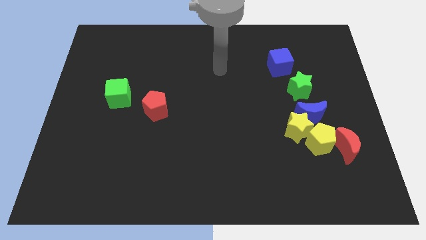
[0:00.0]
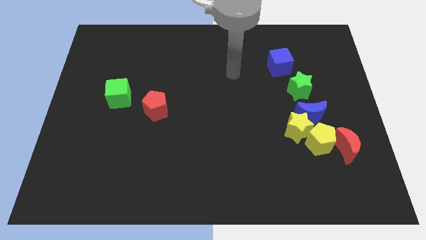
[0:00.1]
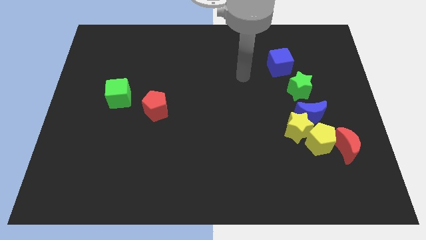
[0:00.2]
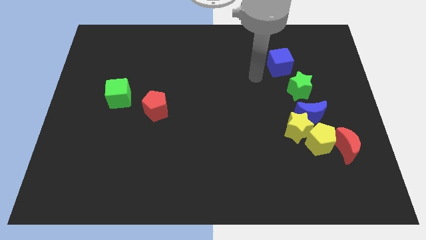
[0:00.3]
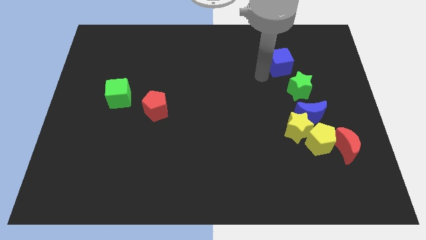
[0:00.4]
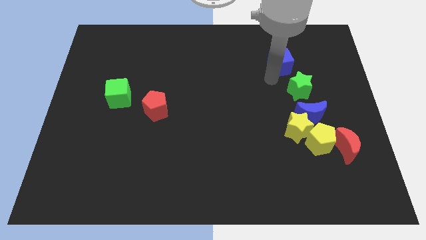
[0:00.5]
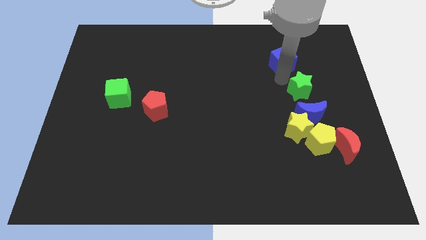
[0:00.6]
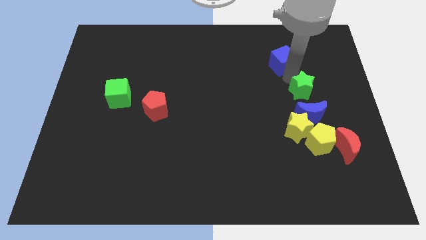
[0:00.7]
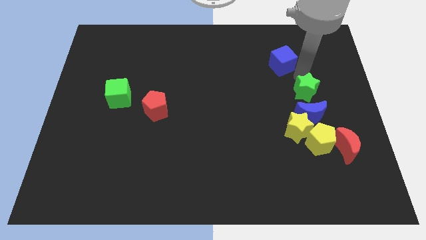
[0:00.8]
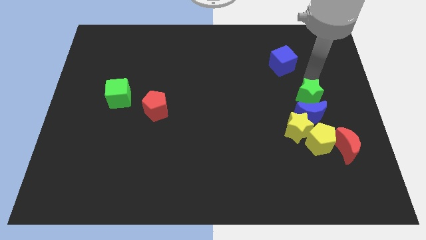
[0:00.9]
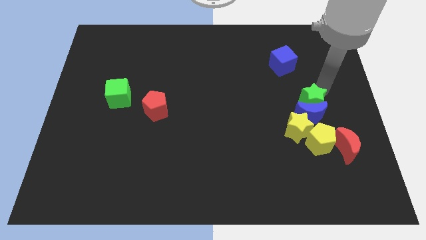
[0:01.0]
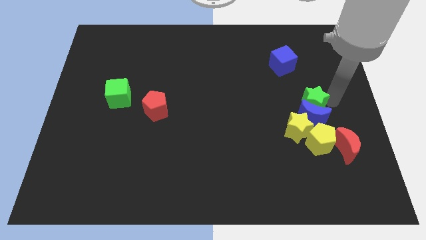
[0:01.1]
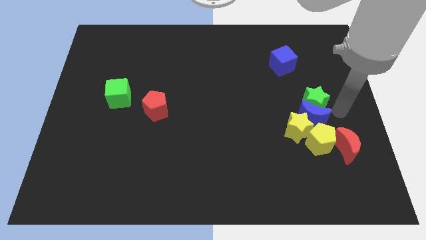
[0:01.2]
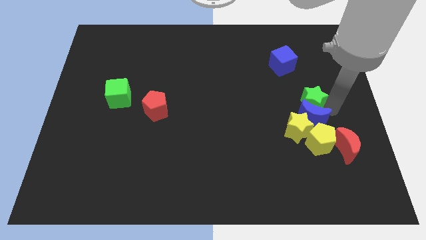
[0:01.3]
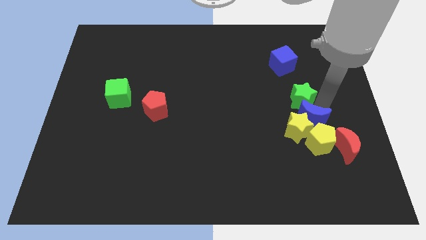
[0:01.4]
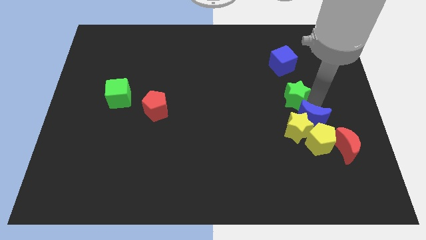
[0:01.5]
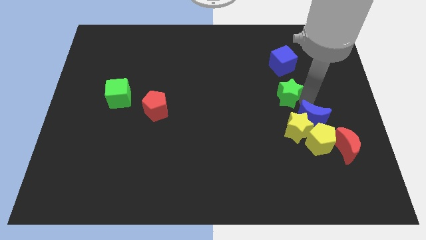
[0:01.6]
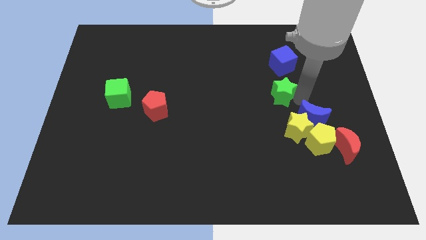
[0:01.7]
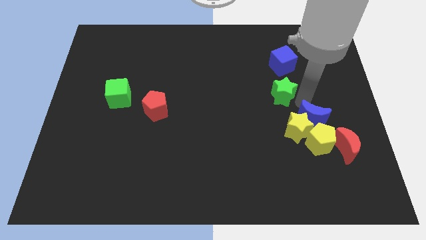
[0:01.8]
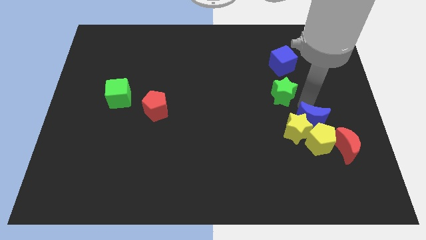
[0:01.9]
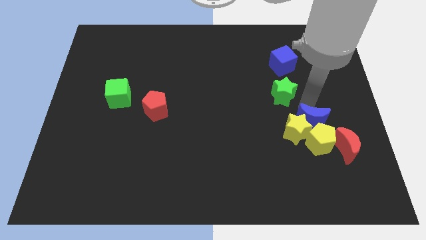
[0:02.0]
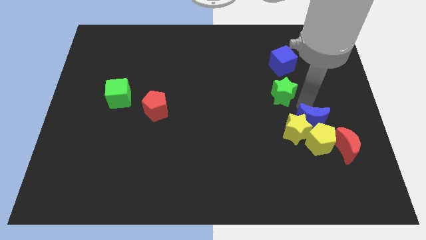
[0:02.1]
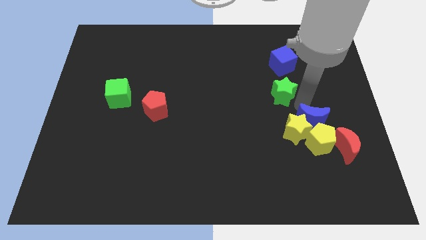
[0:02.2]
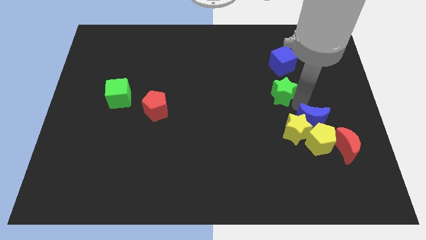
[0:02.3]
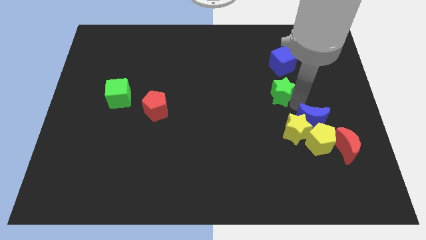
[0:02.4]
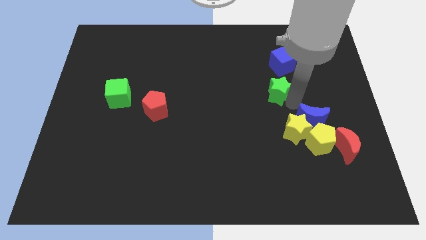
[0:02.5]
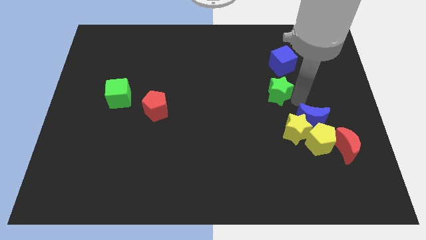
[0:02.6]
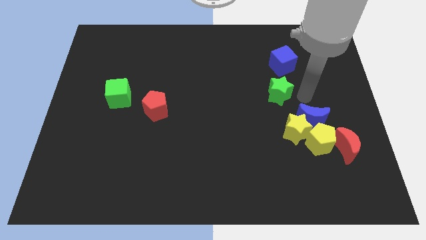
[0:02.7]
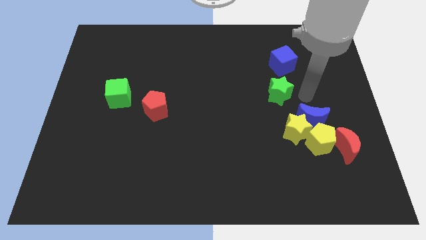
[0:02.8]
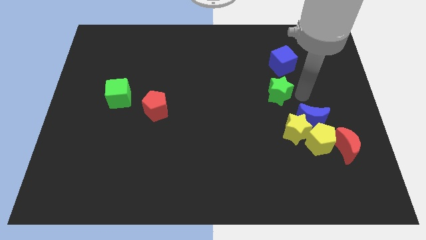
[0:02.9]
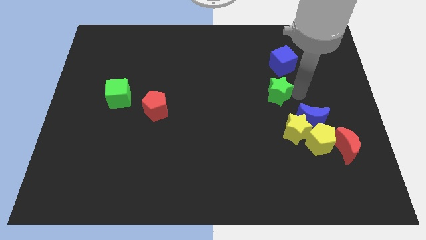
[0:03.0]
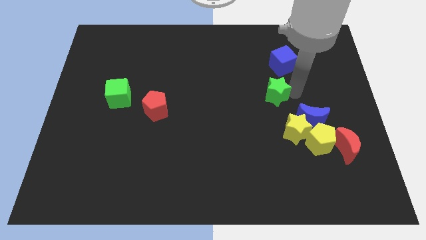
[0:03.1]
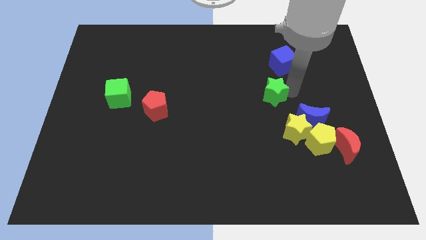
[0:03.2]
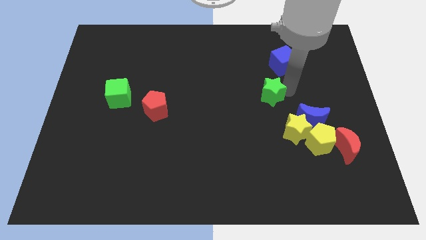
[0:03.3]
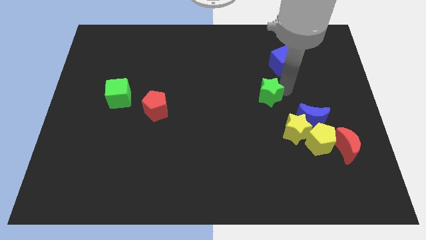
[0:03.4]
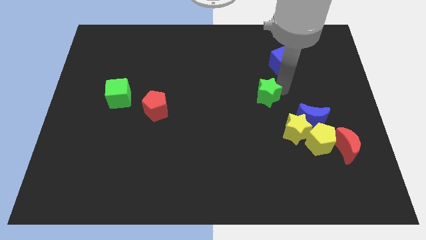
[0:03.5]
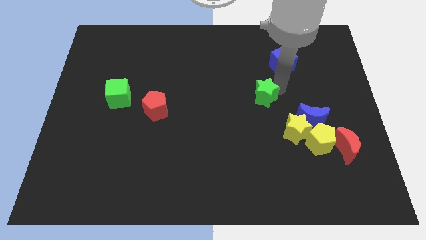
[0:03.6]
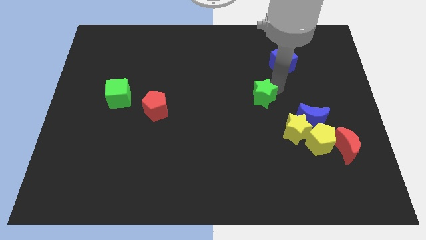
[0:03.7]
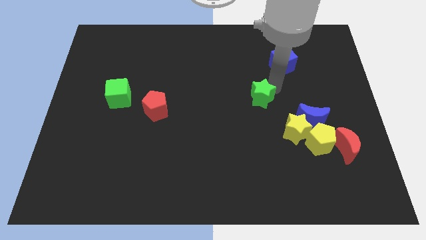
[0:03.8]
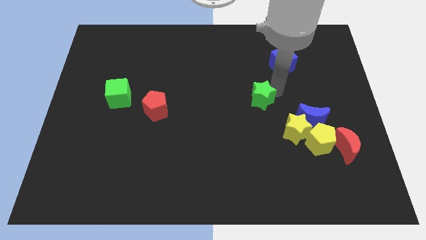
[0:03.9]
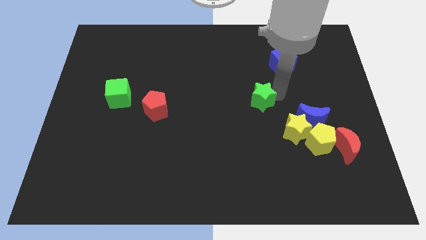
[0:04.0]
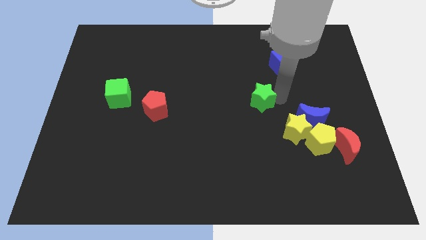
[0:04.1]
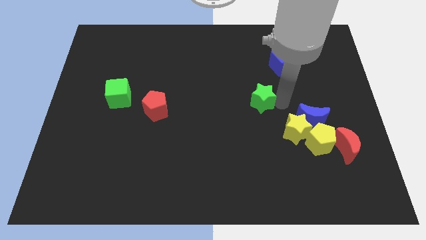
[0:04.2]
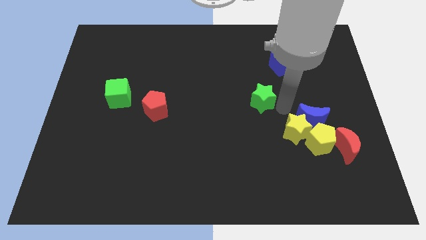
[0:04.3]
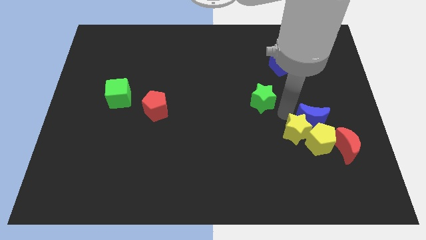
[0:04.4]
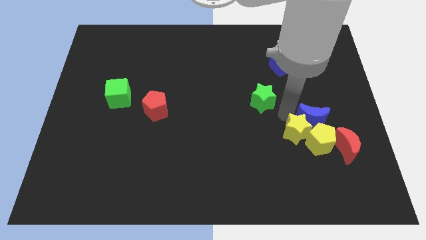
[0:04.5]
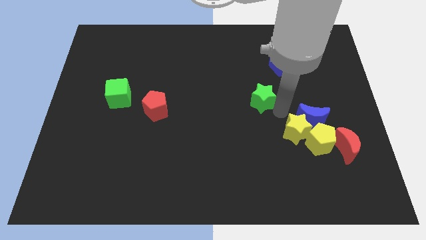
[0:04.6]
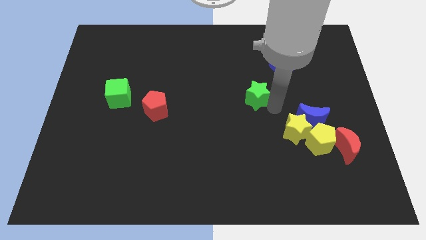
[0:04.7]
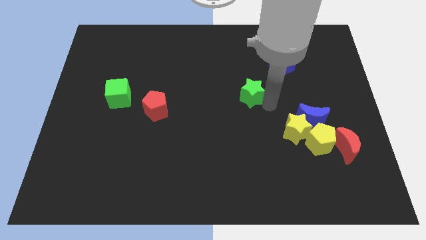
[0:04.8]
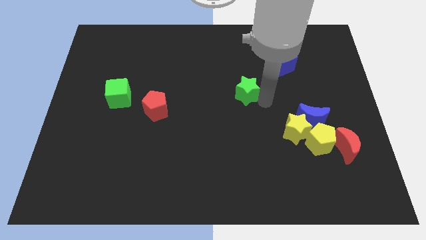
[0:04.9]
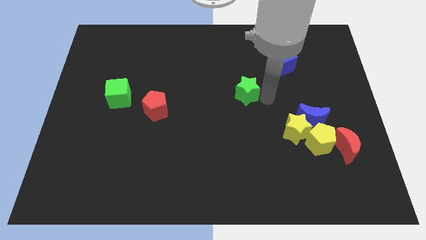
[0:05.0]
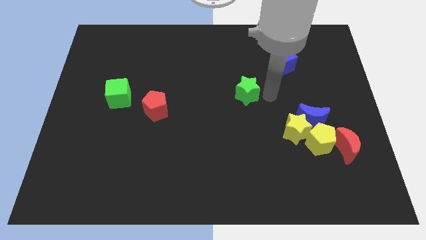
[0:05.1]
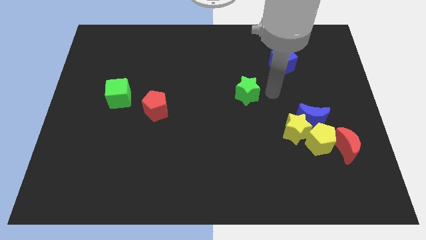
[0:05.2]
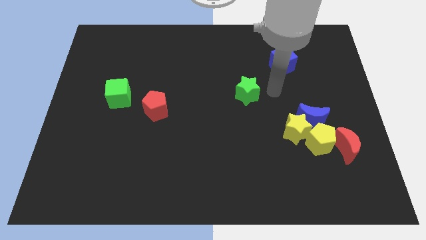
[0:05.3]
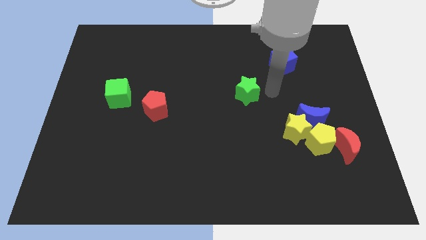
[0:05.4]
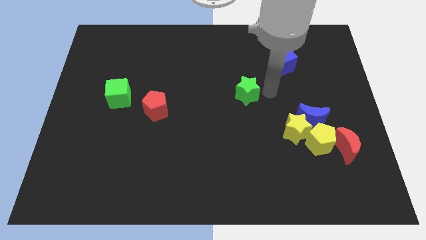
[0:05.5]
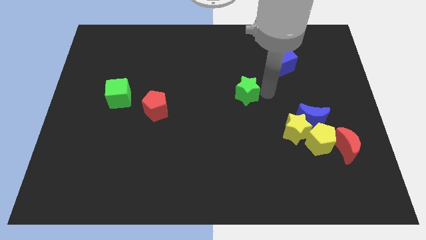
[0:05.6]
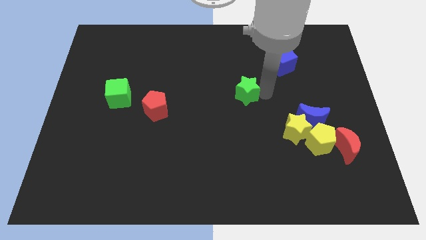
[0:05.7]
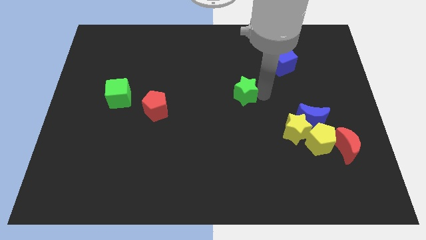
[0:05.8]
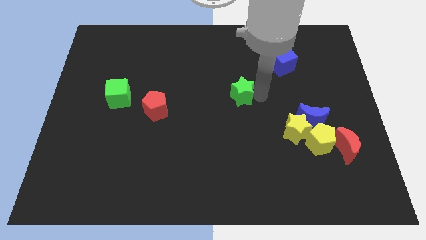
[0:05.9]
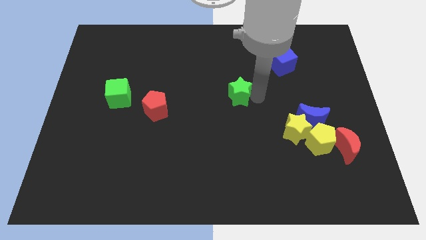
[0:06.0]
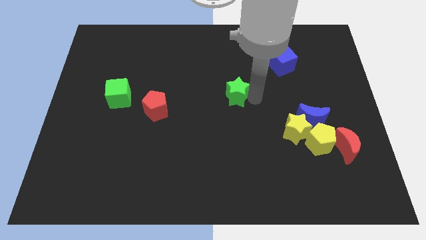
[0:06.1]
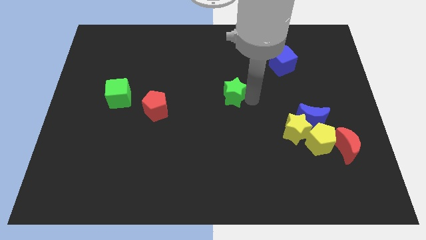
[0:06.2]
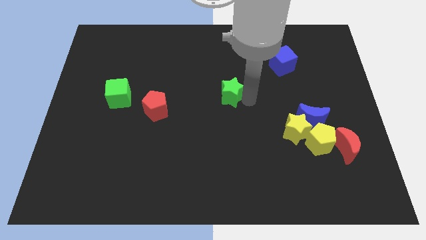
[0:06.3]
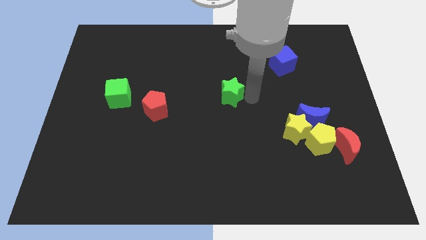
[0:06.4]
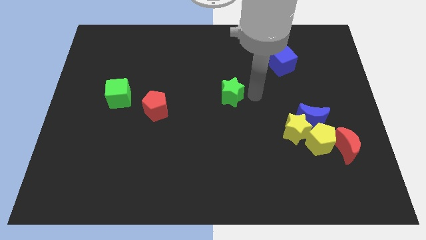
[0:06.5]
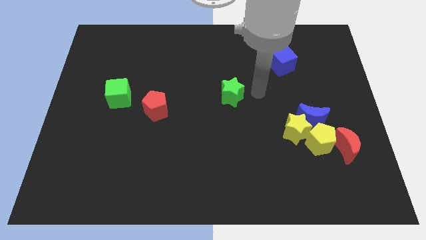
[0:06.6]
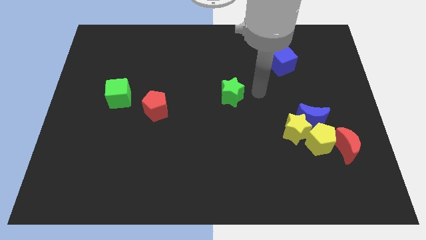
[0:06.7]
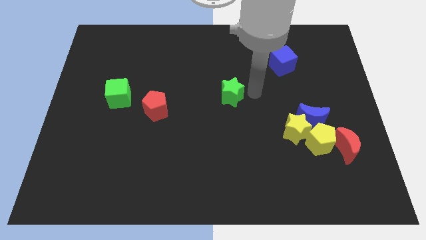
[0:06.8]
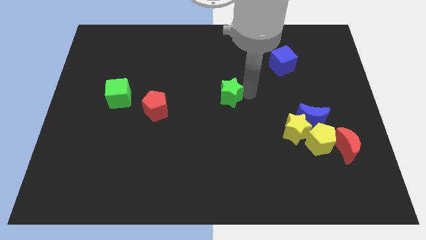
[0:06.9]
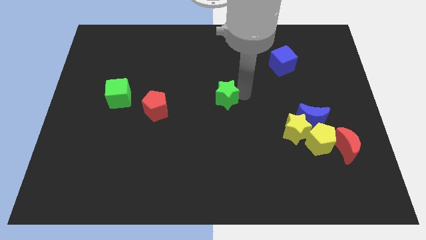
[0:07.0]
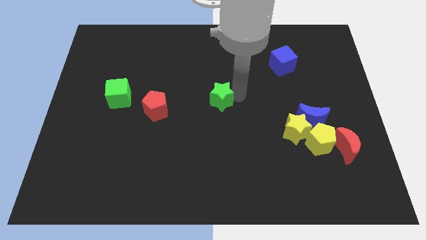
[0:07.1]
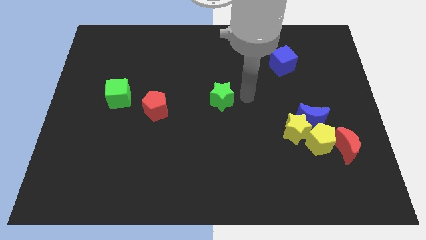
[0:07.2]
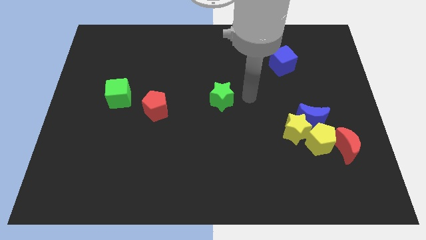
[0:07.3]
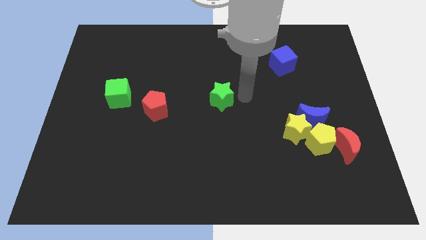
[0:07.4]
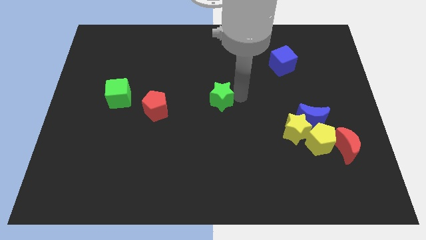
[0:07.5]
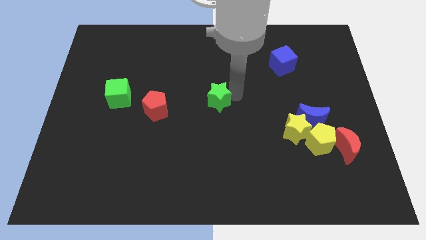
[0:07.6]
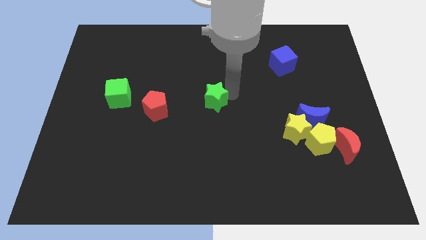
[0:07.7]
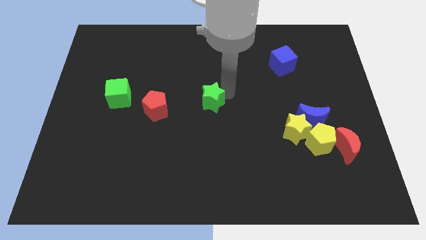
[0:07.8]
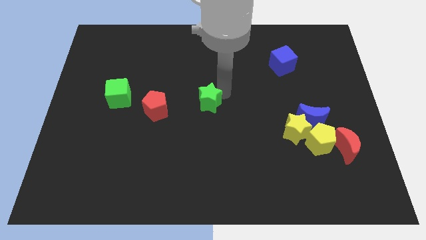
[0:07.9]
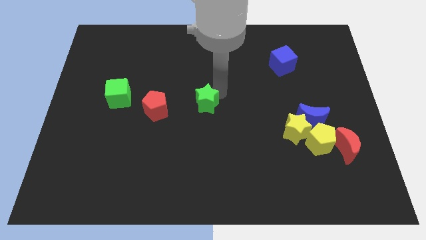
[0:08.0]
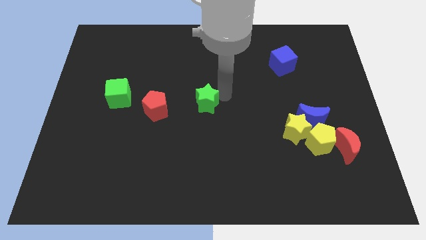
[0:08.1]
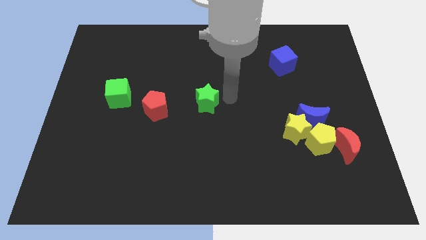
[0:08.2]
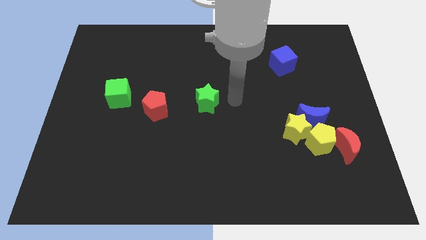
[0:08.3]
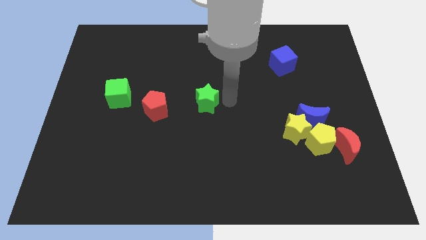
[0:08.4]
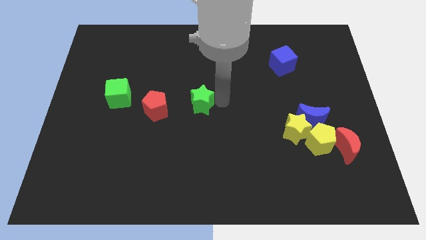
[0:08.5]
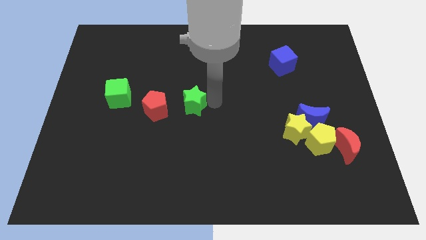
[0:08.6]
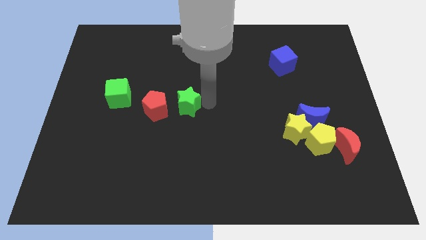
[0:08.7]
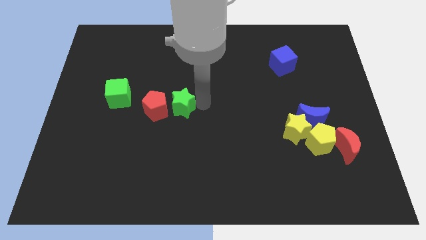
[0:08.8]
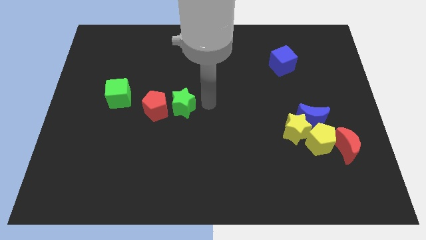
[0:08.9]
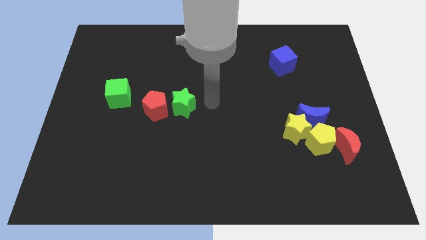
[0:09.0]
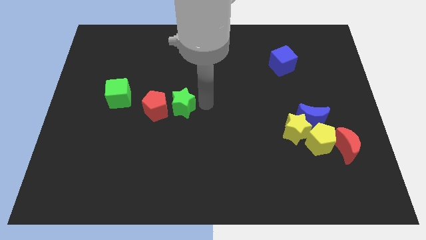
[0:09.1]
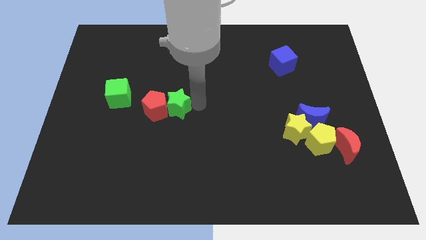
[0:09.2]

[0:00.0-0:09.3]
put the green star to the red pentagon
